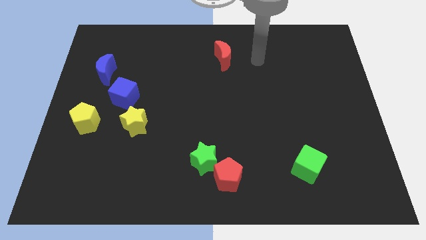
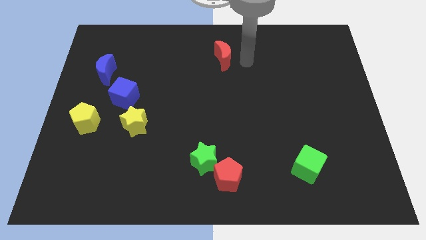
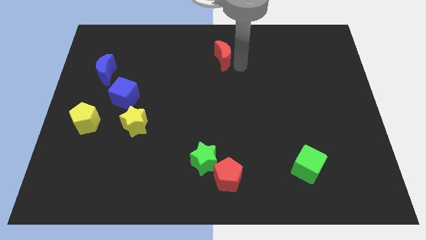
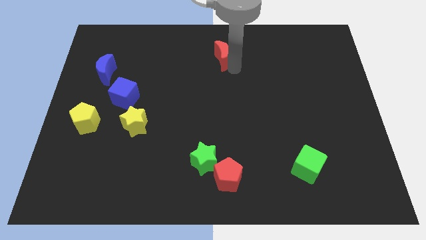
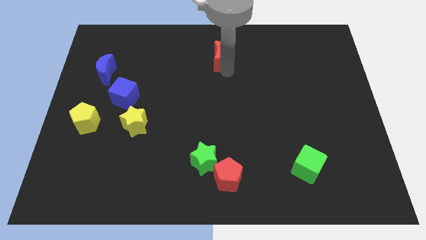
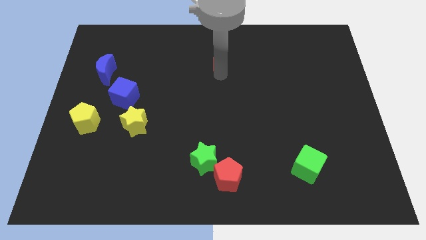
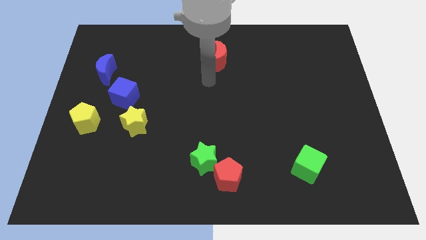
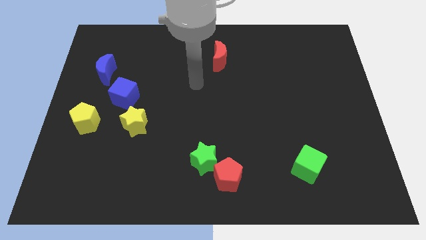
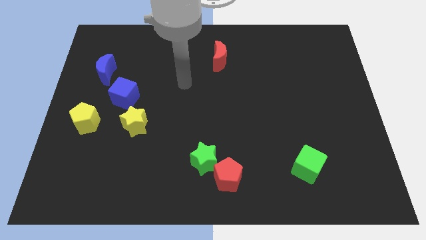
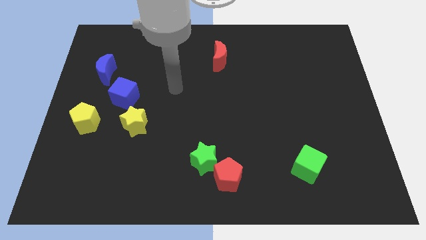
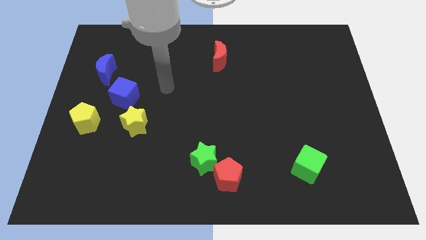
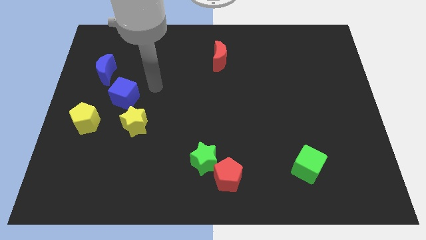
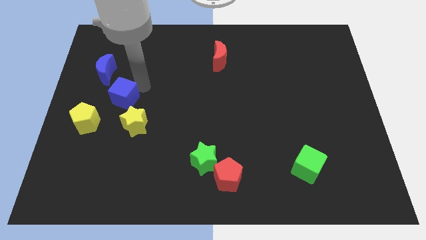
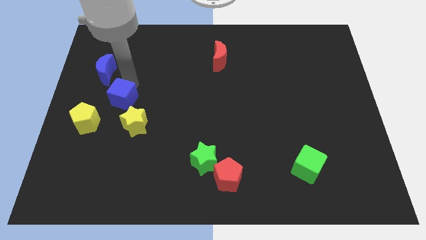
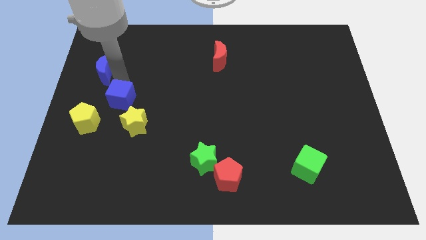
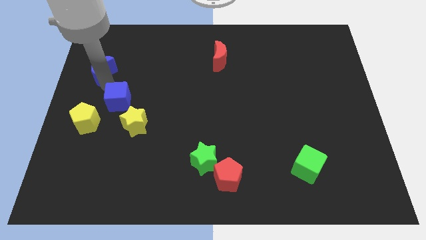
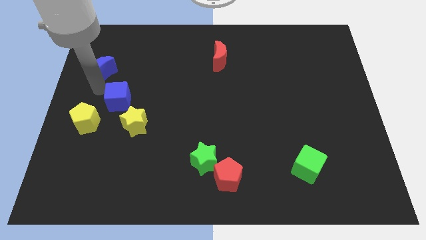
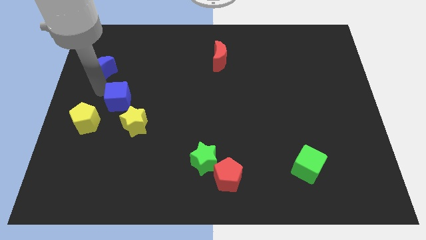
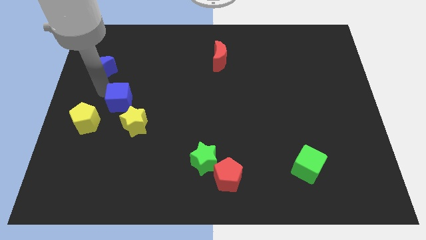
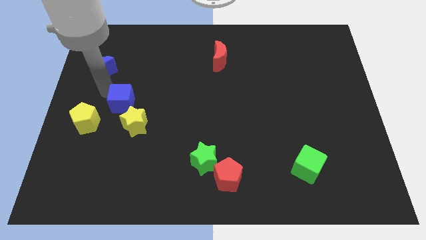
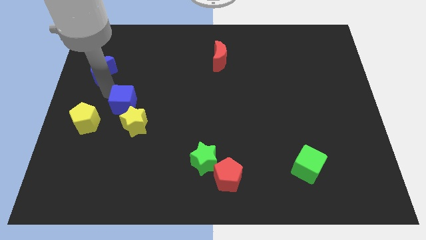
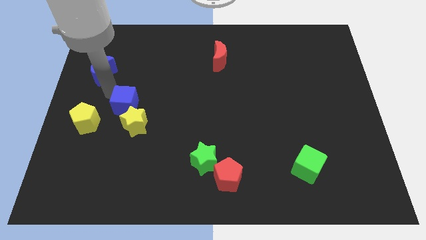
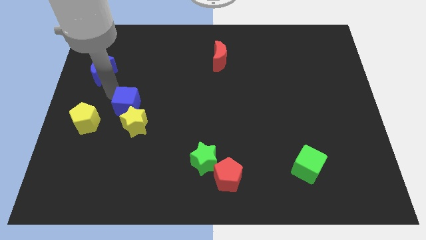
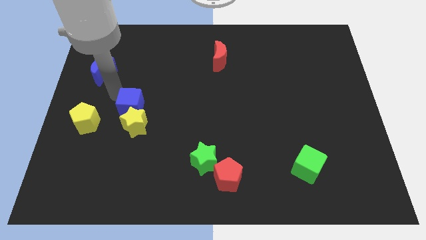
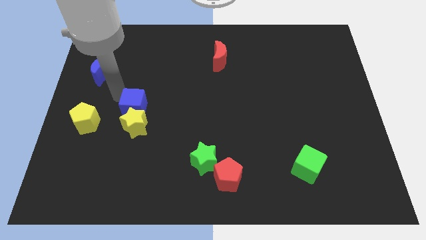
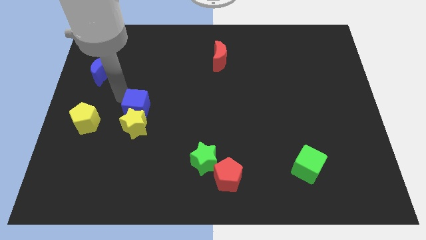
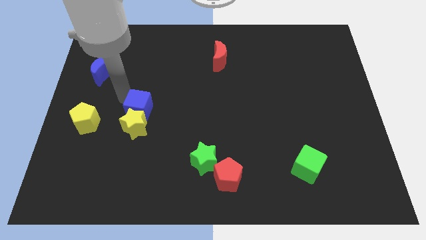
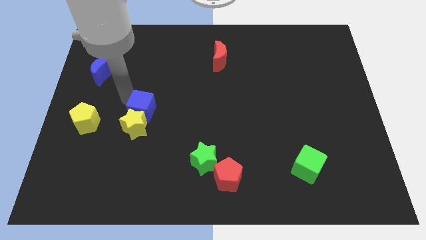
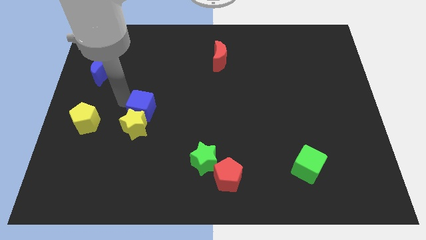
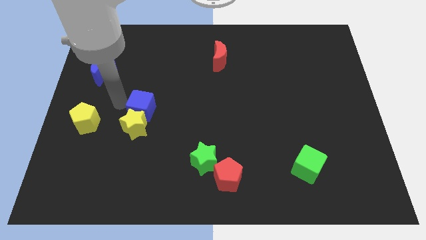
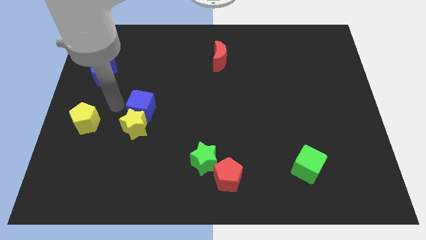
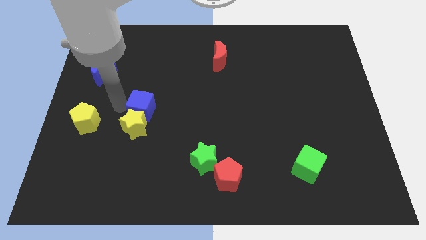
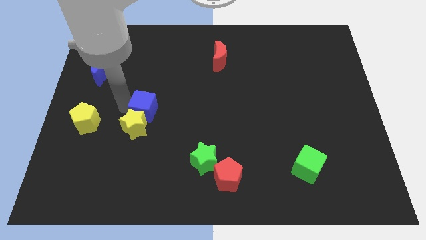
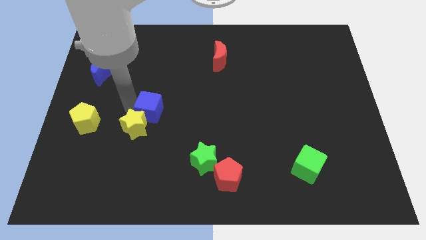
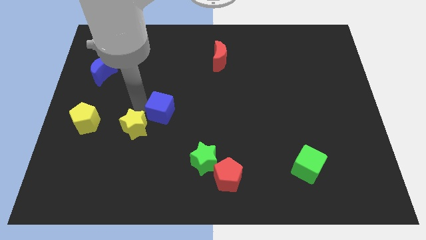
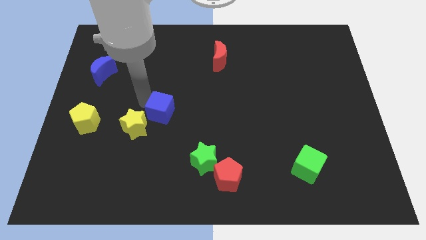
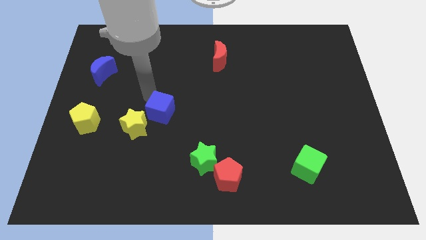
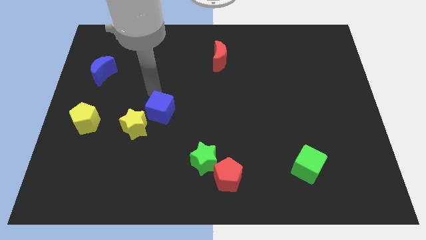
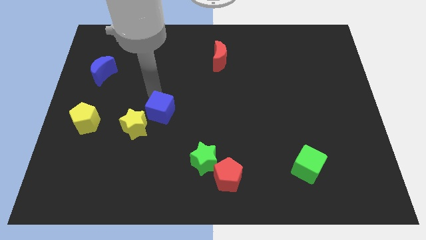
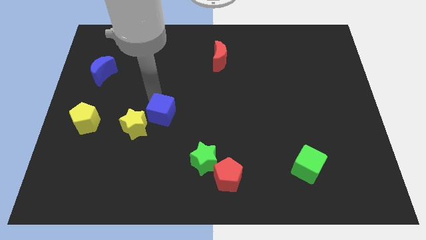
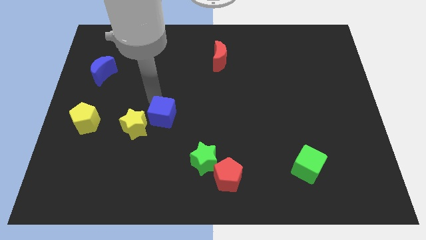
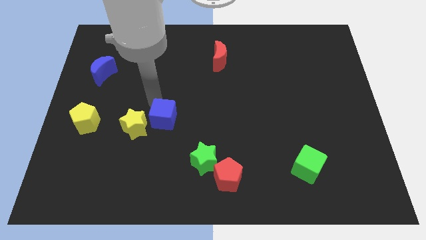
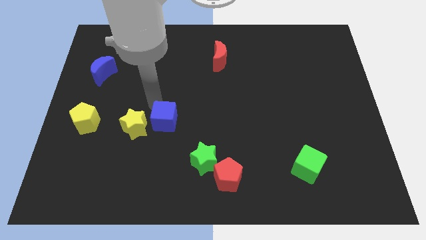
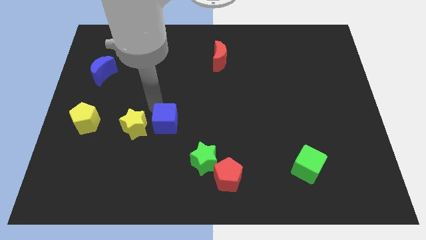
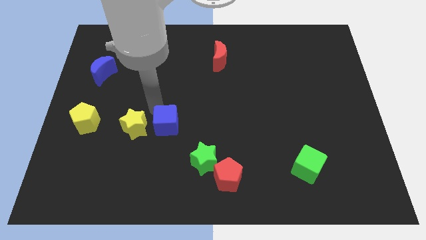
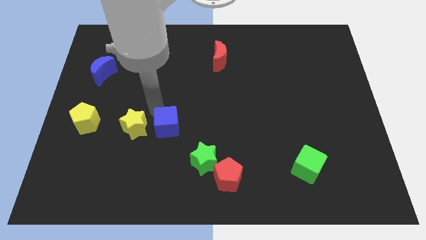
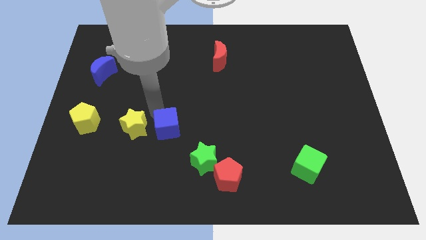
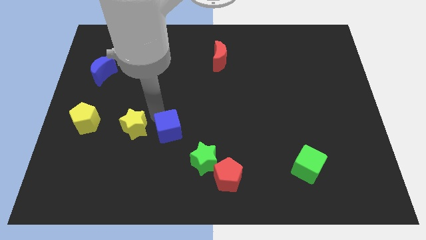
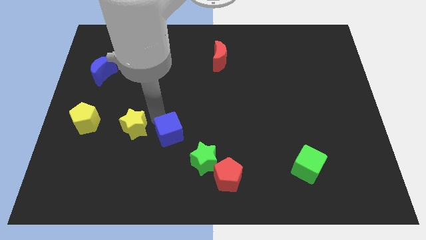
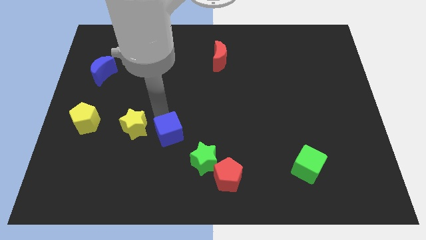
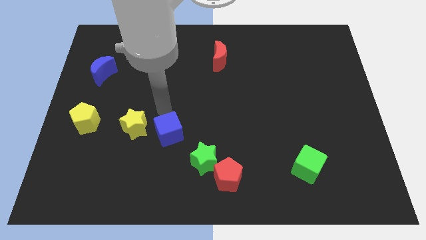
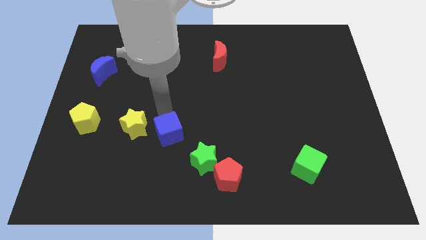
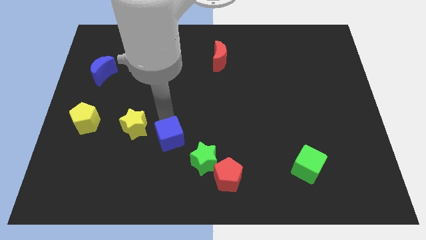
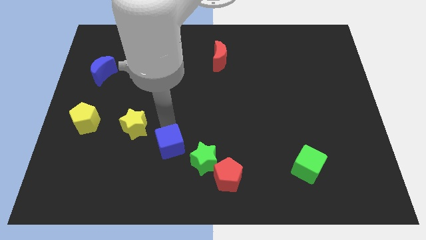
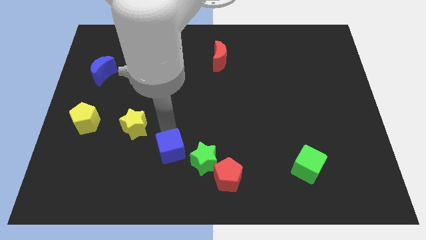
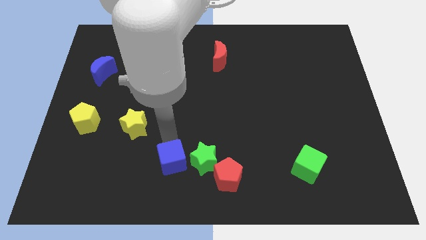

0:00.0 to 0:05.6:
push the blue cube diagonally down and to the left of the green star

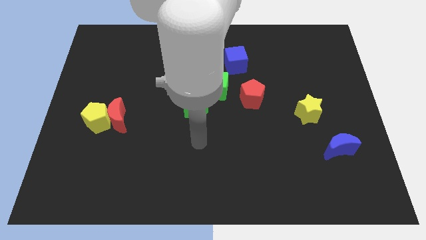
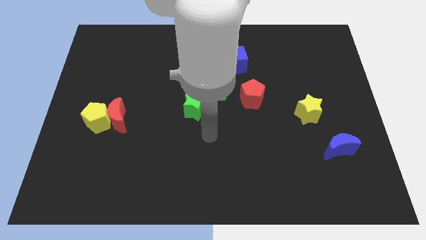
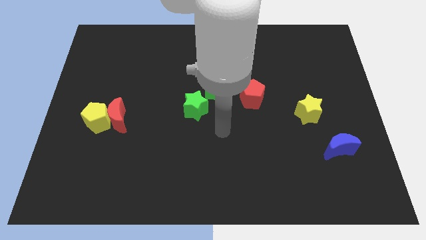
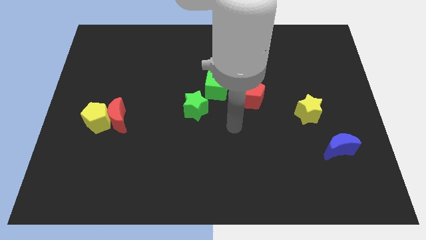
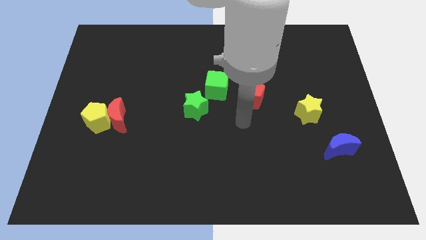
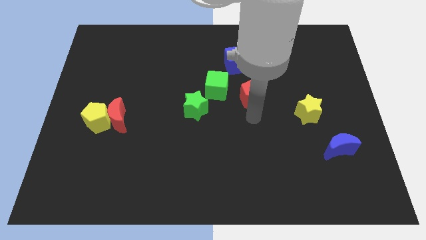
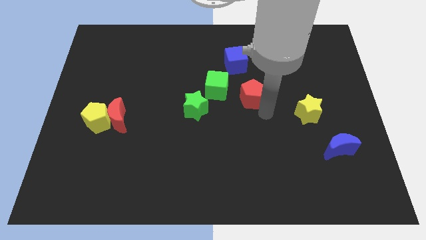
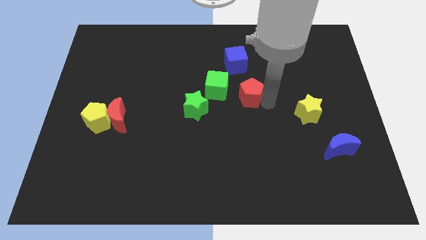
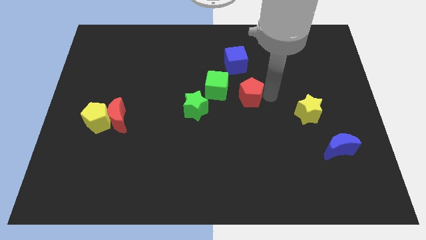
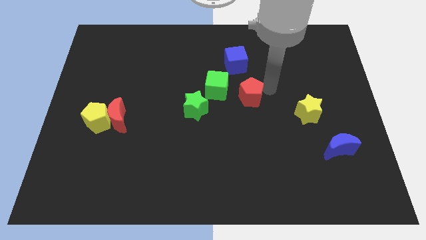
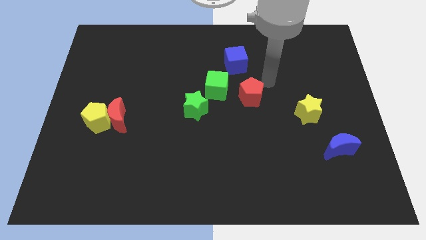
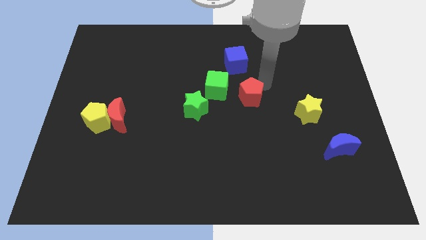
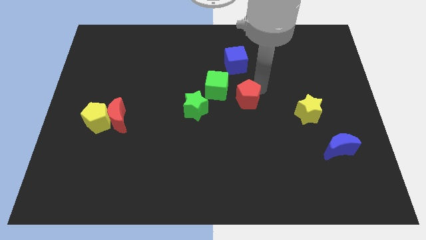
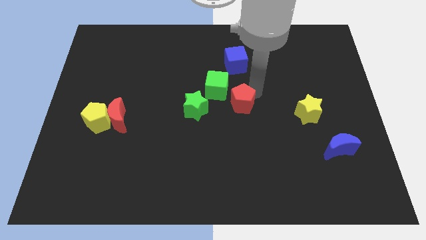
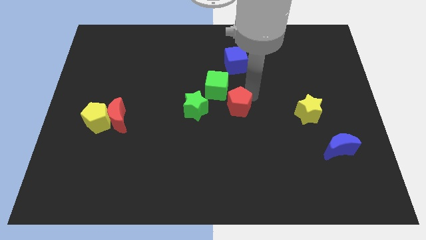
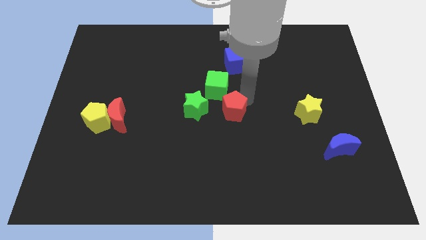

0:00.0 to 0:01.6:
move the red pentagon to the bottom of the green cube

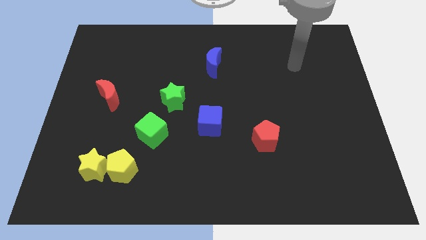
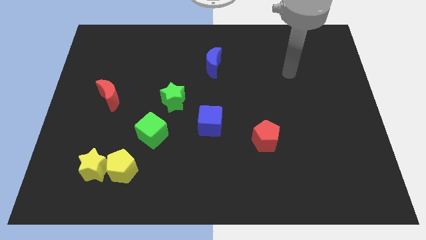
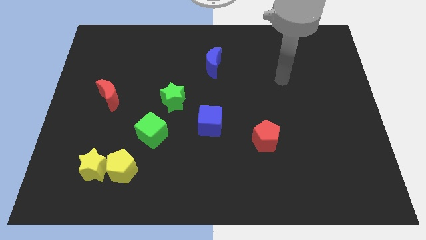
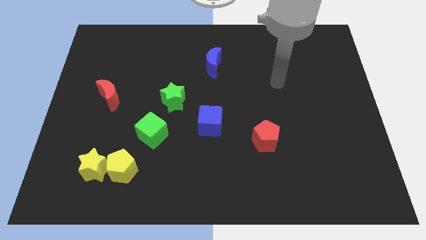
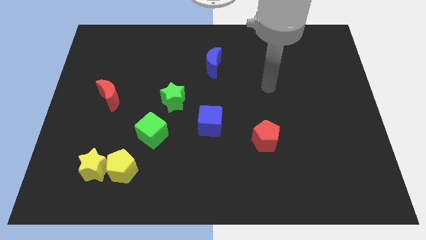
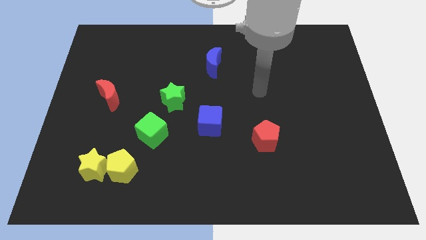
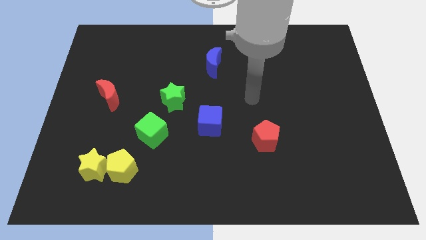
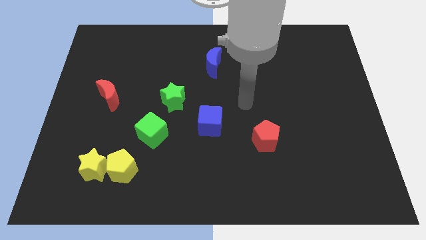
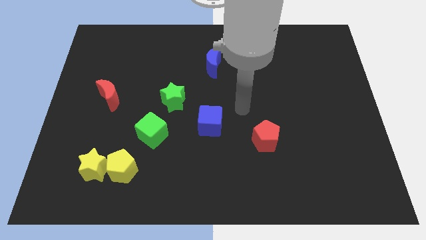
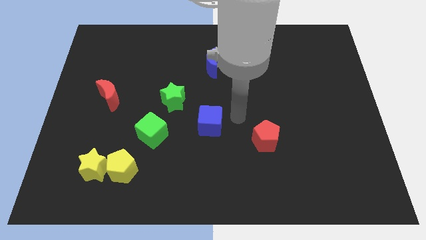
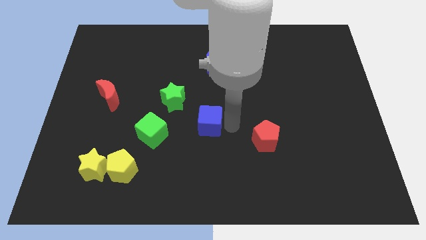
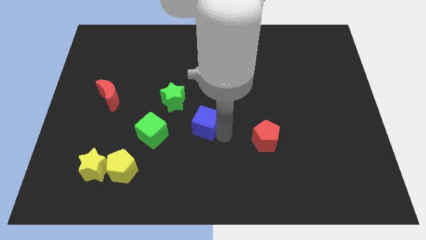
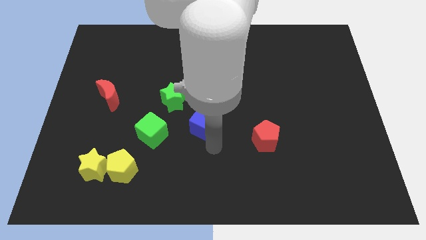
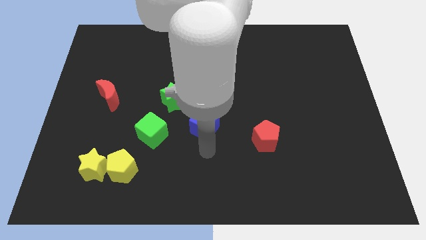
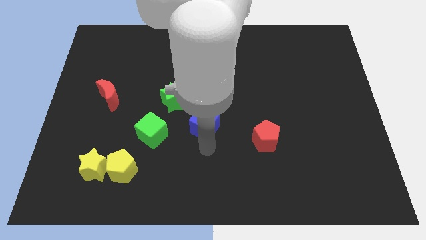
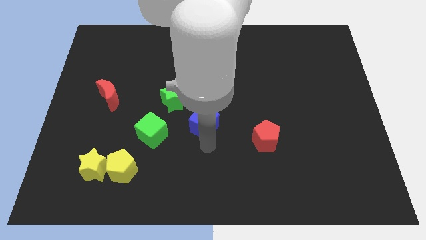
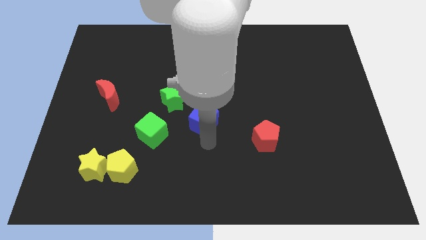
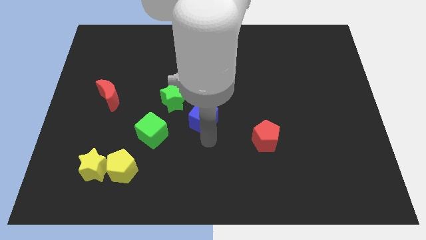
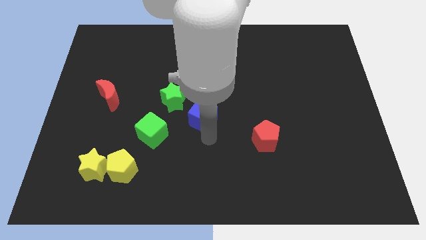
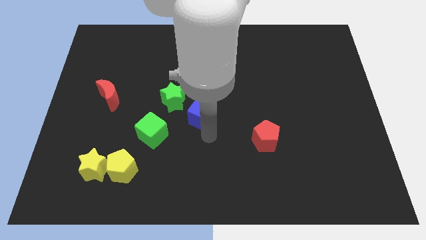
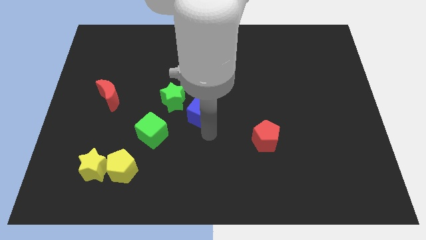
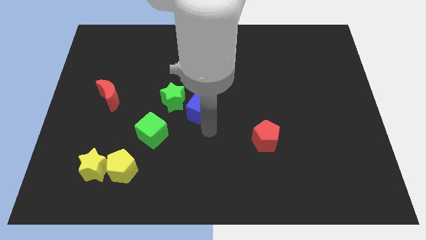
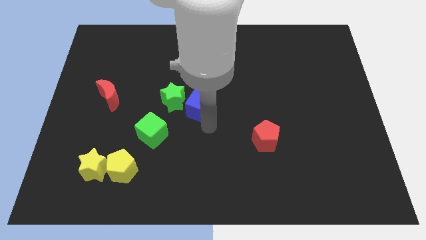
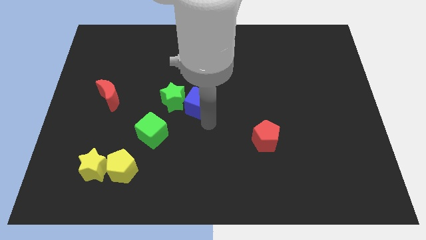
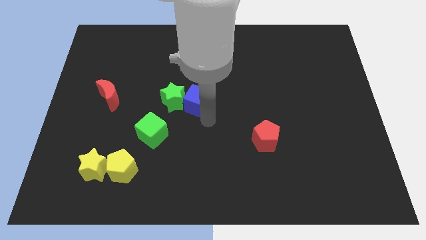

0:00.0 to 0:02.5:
slide the blue cube to the top right side of the green star
